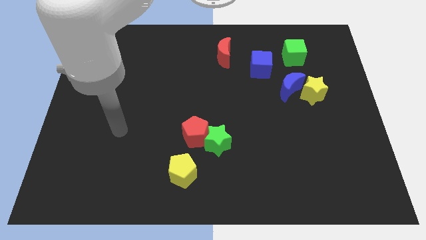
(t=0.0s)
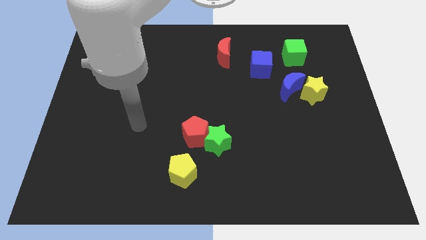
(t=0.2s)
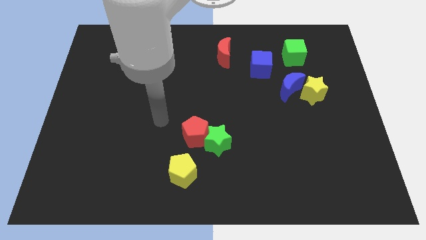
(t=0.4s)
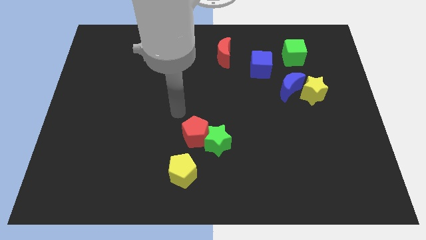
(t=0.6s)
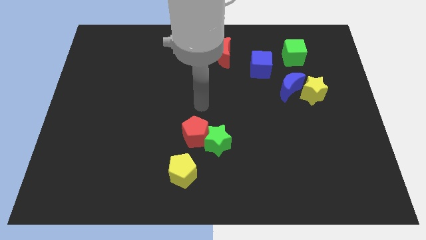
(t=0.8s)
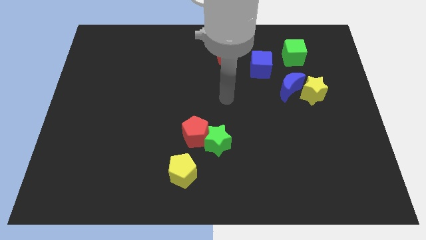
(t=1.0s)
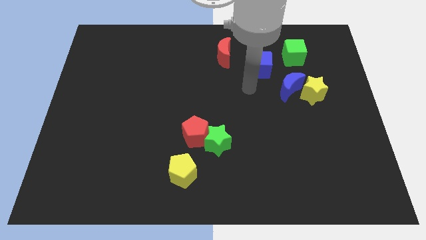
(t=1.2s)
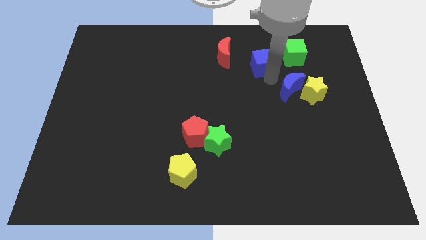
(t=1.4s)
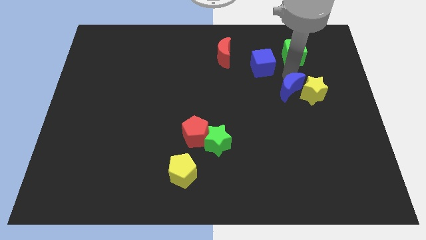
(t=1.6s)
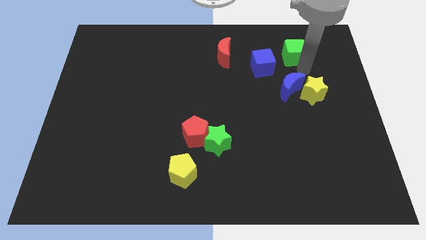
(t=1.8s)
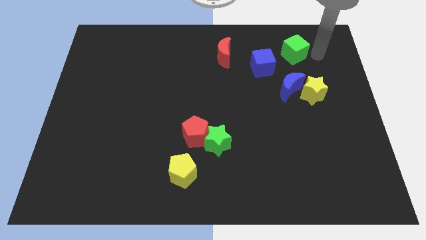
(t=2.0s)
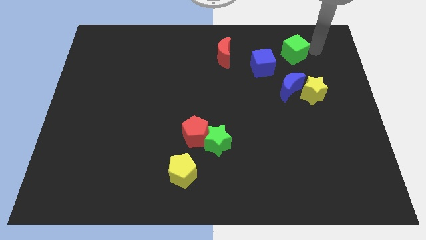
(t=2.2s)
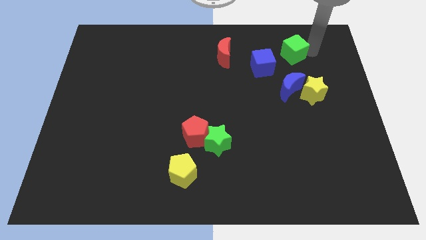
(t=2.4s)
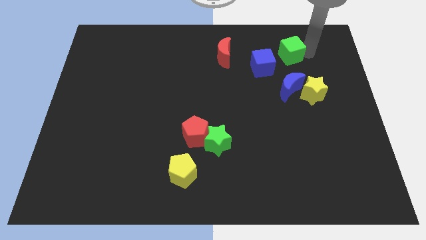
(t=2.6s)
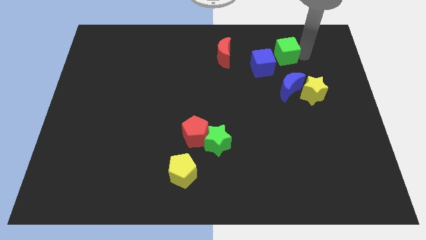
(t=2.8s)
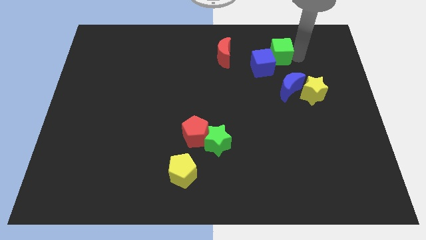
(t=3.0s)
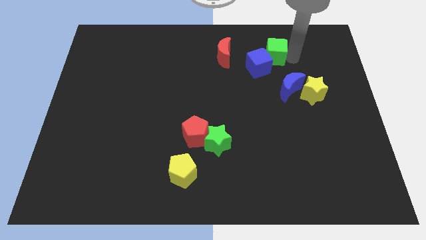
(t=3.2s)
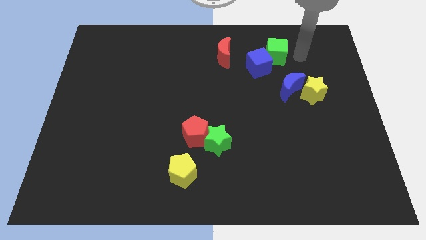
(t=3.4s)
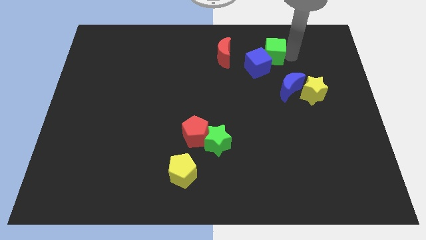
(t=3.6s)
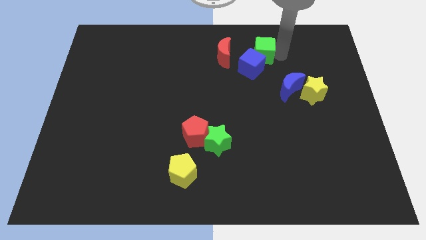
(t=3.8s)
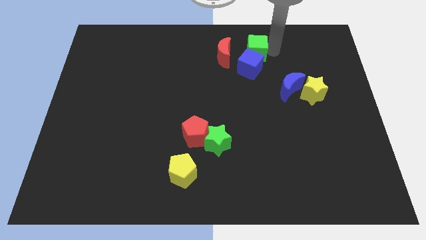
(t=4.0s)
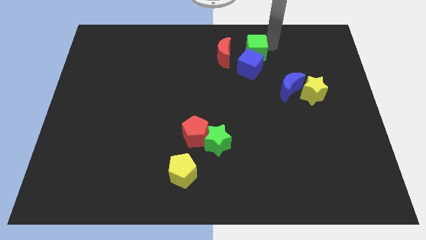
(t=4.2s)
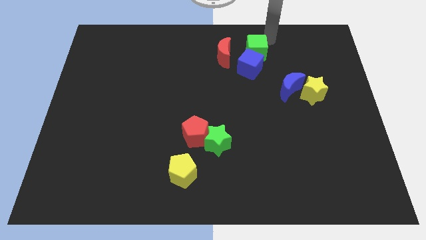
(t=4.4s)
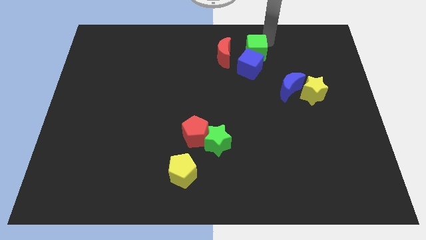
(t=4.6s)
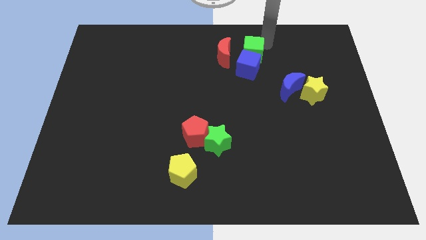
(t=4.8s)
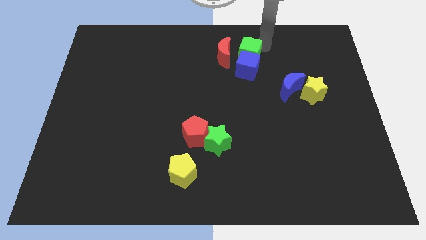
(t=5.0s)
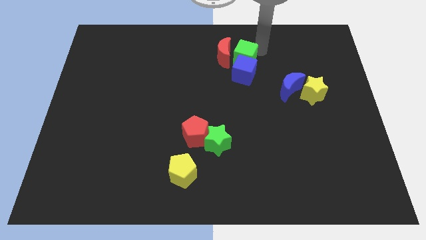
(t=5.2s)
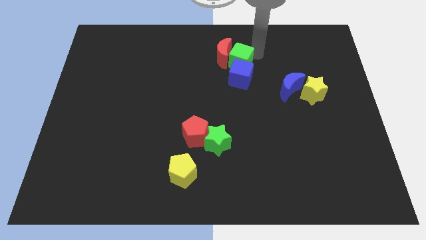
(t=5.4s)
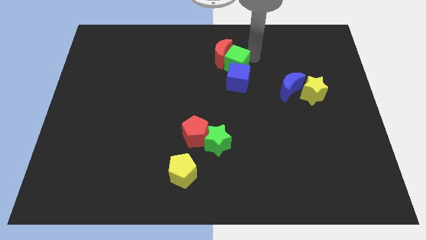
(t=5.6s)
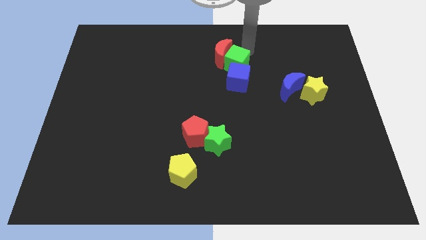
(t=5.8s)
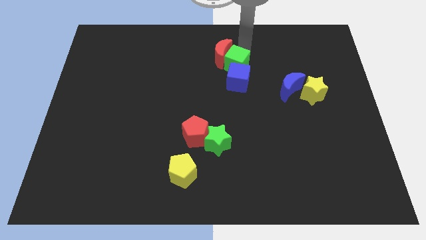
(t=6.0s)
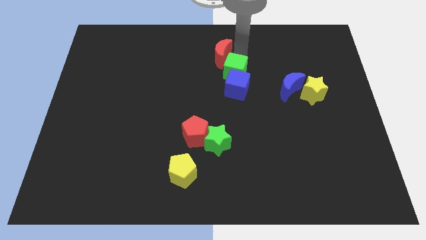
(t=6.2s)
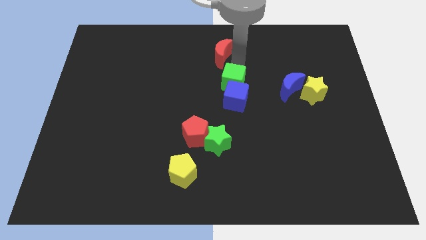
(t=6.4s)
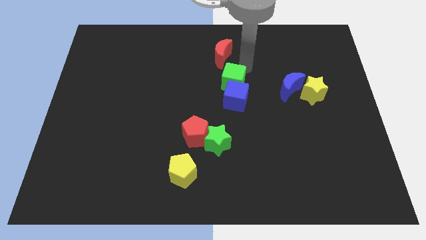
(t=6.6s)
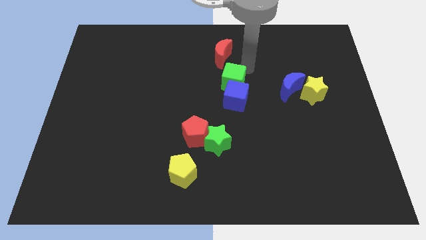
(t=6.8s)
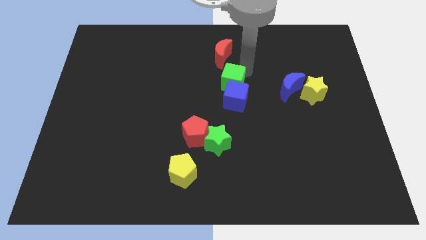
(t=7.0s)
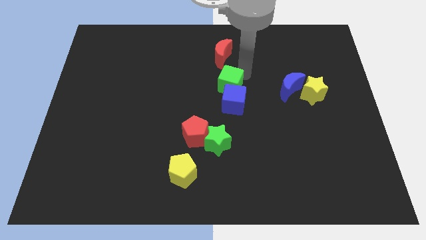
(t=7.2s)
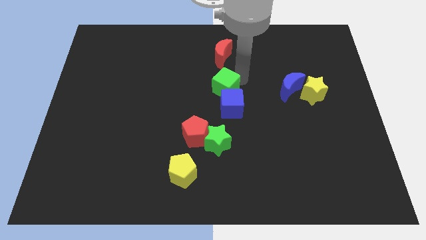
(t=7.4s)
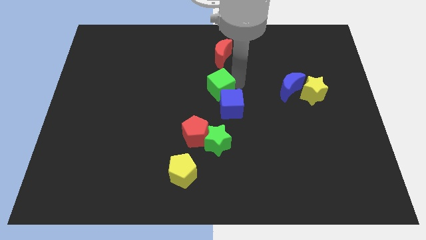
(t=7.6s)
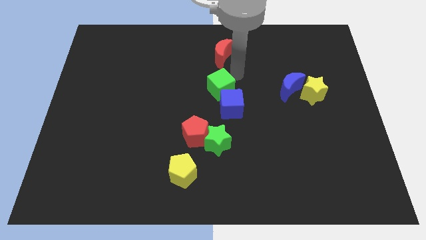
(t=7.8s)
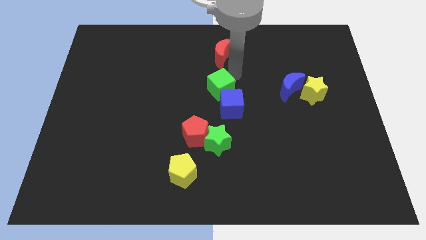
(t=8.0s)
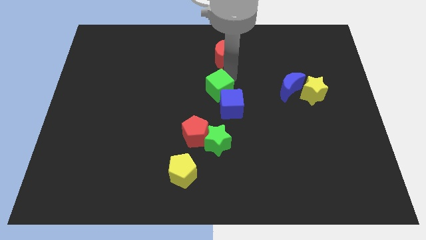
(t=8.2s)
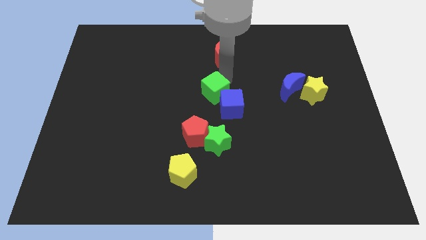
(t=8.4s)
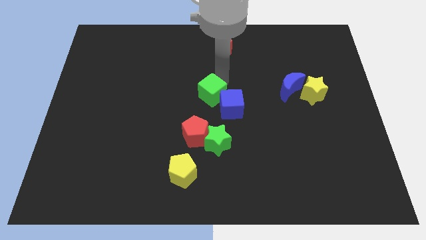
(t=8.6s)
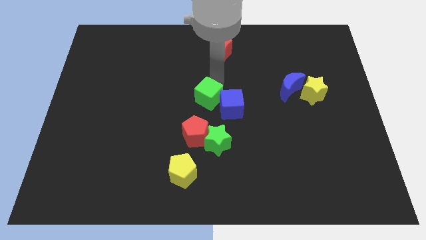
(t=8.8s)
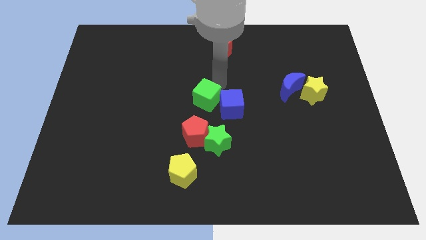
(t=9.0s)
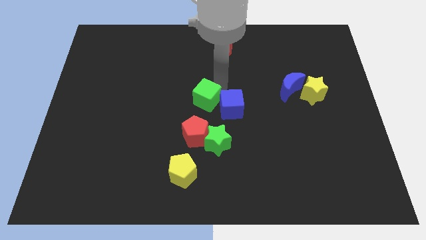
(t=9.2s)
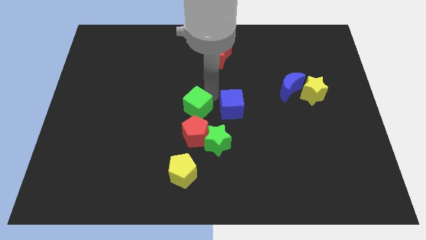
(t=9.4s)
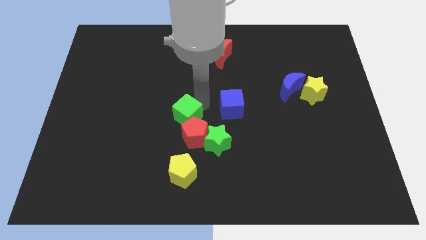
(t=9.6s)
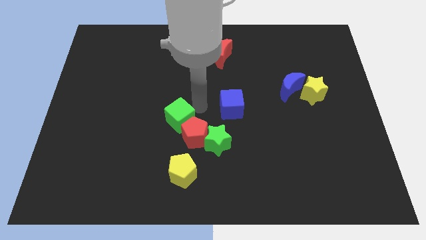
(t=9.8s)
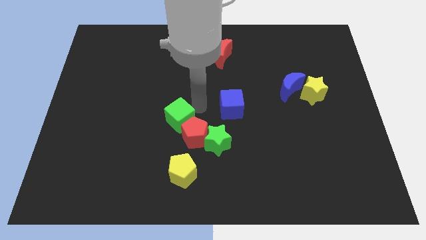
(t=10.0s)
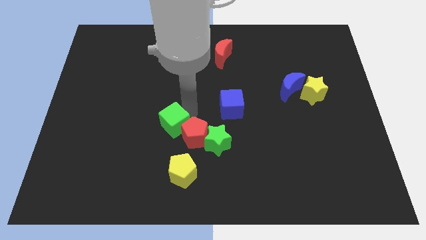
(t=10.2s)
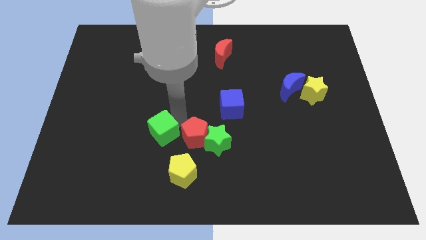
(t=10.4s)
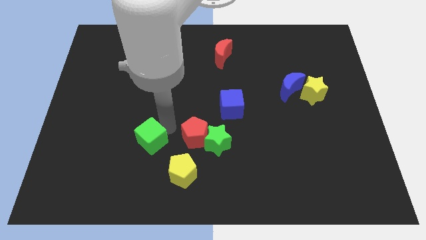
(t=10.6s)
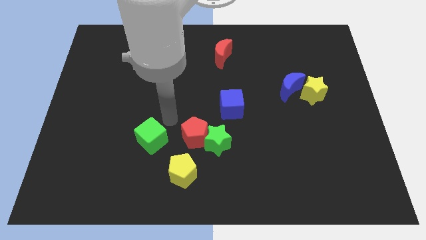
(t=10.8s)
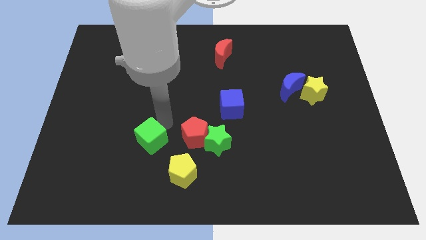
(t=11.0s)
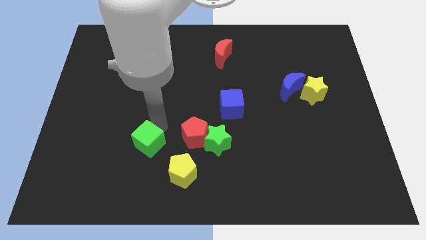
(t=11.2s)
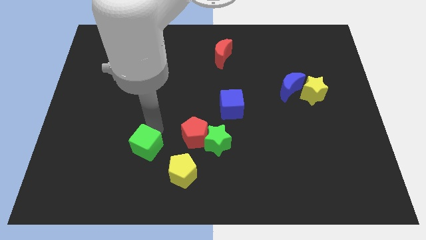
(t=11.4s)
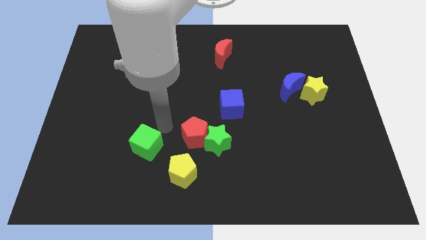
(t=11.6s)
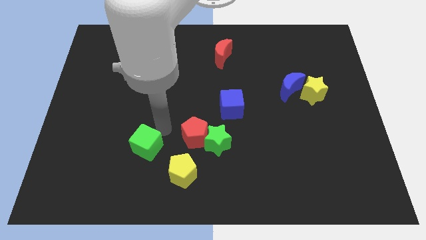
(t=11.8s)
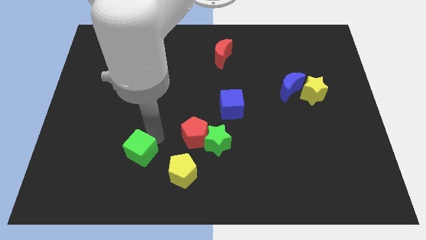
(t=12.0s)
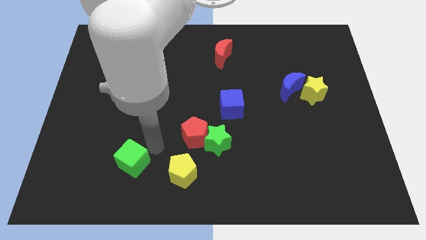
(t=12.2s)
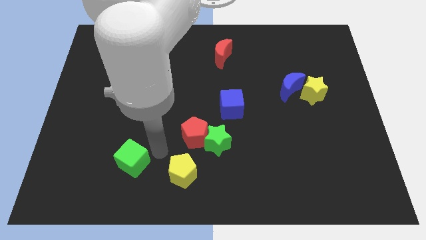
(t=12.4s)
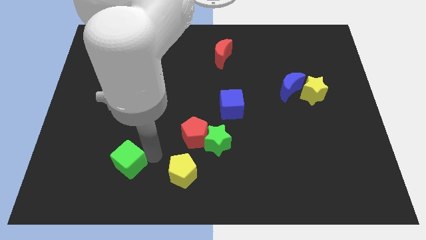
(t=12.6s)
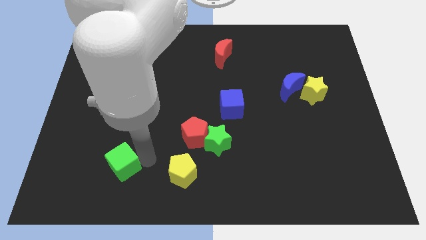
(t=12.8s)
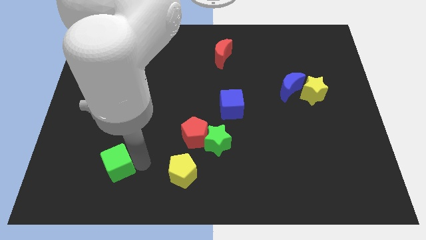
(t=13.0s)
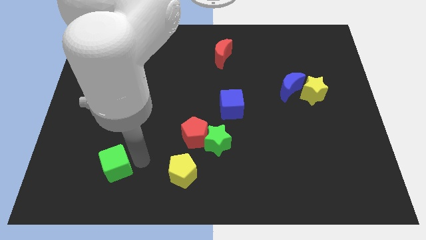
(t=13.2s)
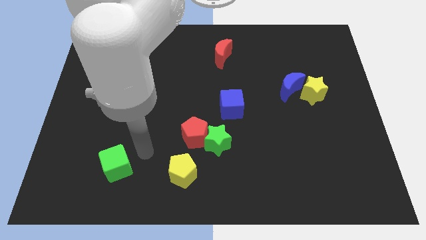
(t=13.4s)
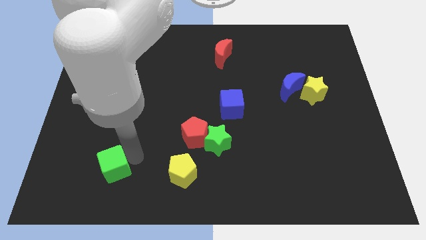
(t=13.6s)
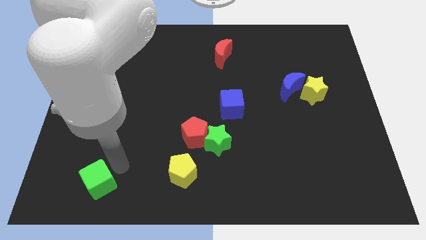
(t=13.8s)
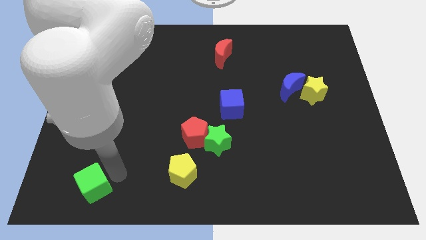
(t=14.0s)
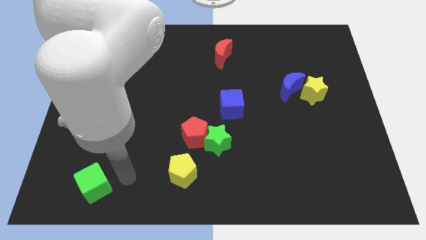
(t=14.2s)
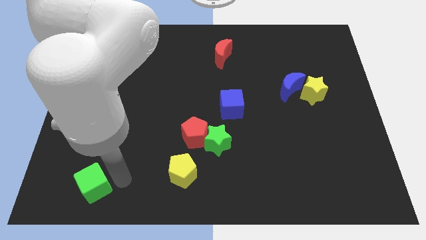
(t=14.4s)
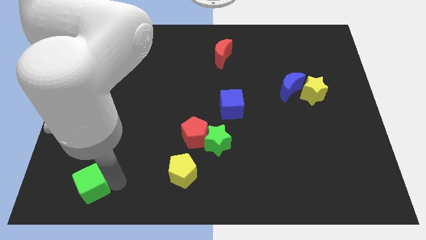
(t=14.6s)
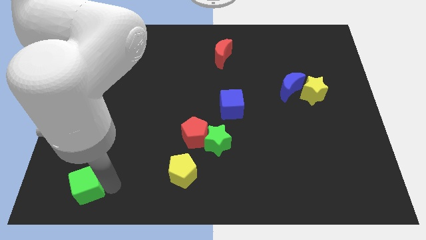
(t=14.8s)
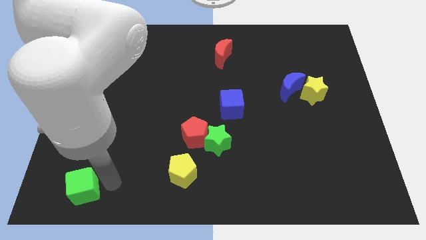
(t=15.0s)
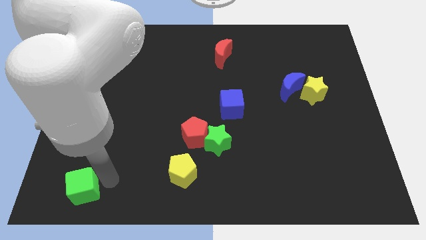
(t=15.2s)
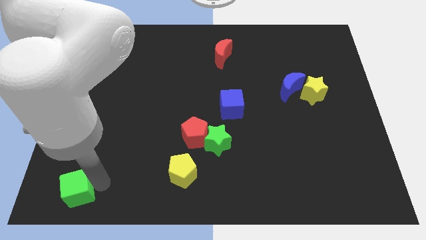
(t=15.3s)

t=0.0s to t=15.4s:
move the green cube to the lower left corner

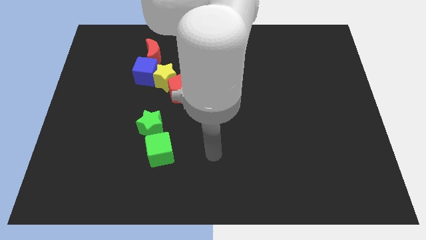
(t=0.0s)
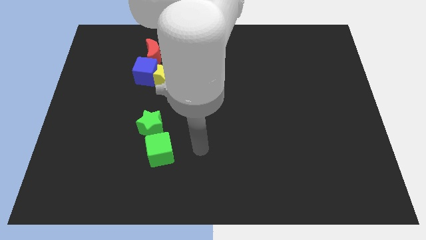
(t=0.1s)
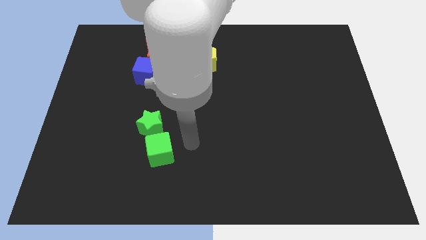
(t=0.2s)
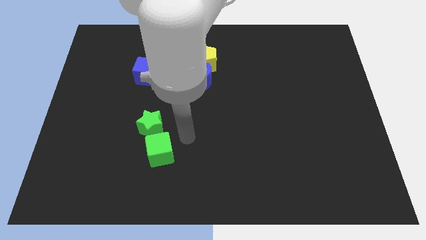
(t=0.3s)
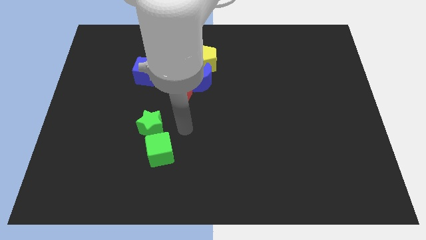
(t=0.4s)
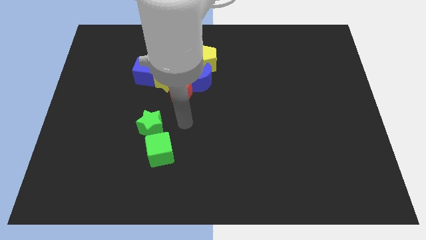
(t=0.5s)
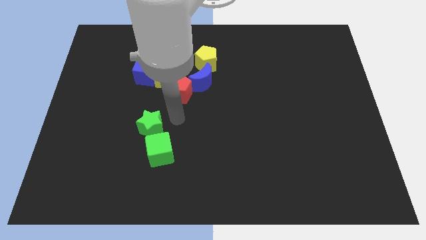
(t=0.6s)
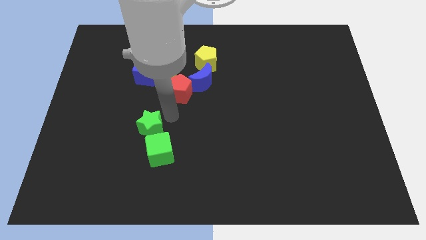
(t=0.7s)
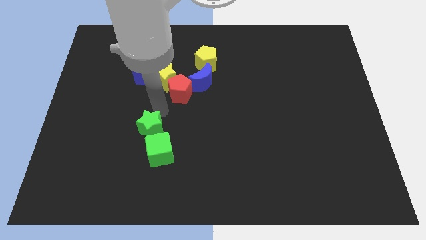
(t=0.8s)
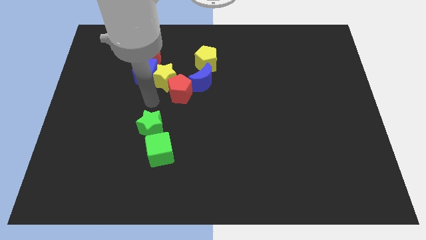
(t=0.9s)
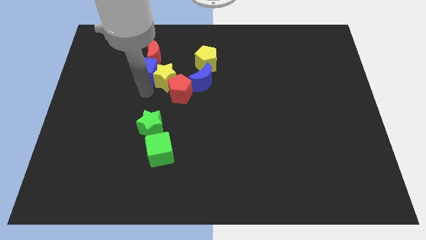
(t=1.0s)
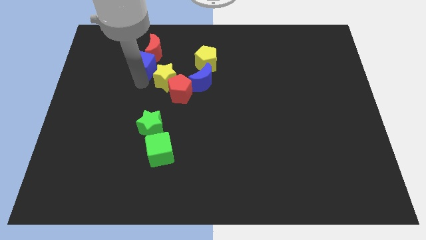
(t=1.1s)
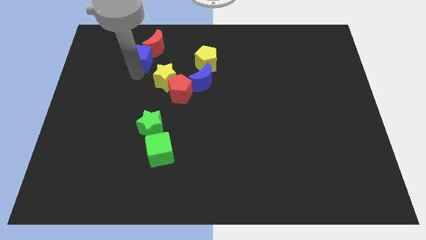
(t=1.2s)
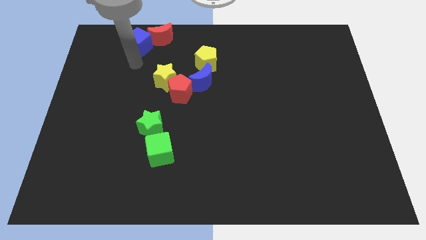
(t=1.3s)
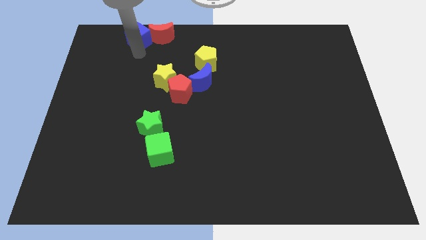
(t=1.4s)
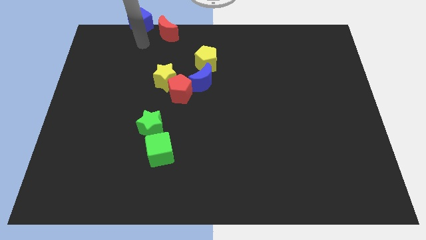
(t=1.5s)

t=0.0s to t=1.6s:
slide the red moon to the top
